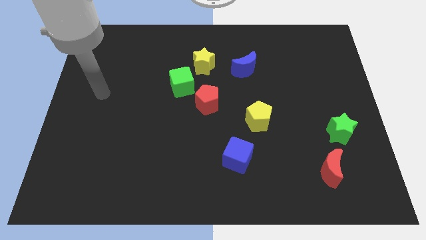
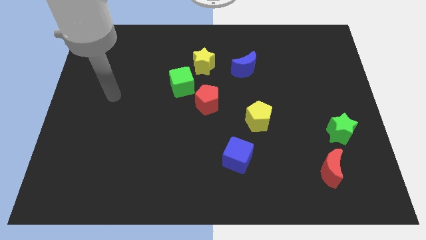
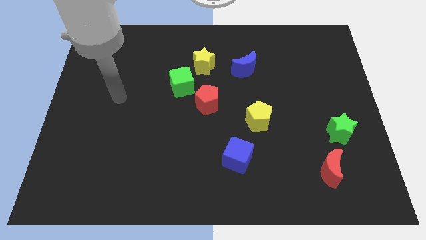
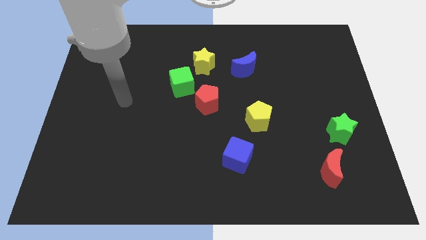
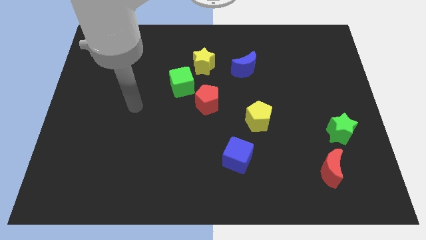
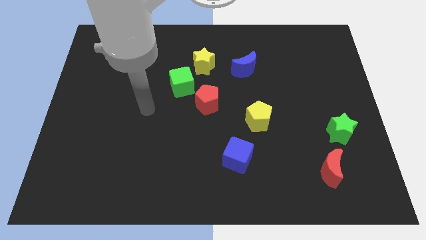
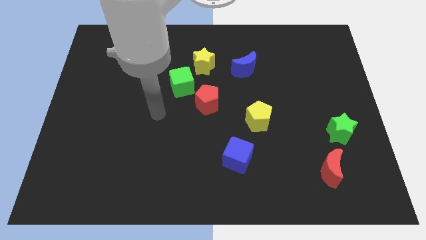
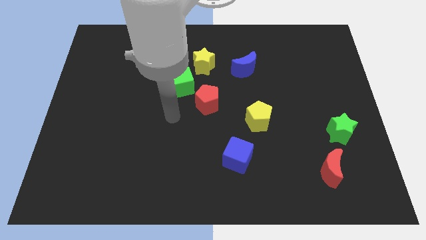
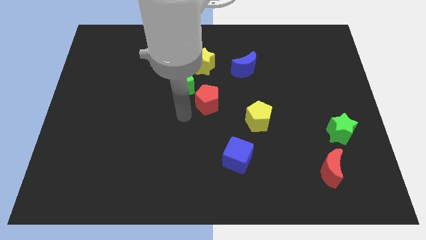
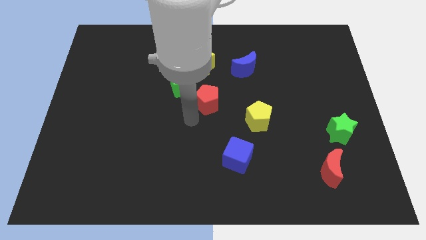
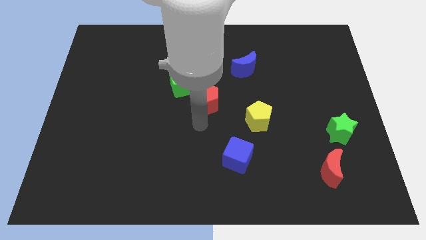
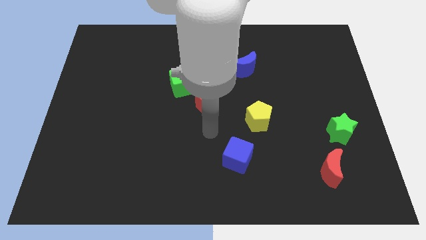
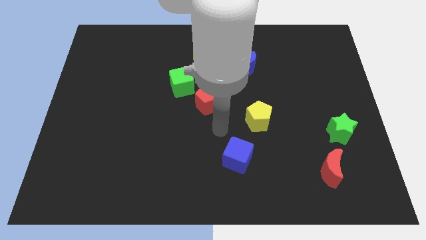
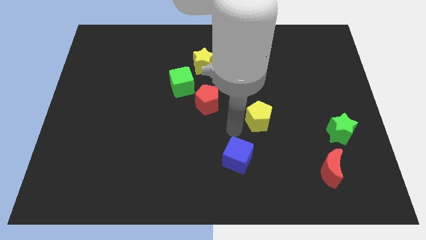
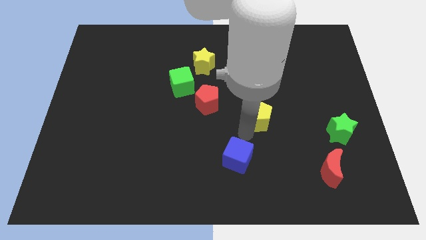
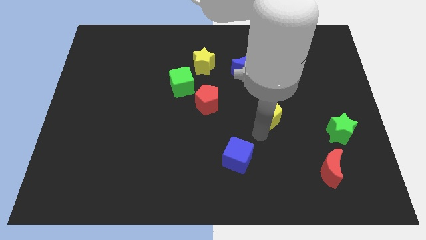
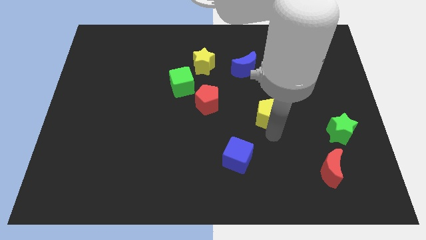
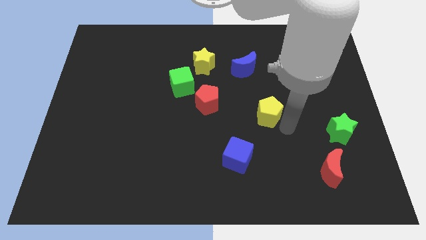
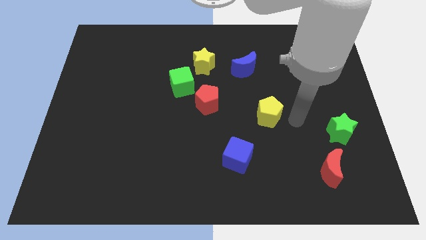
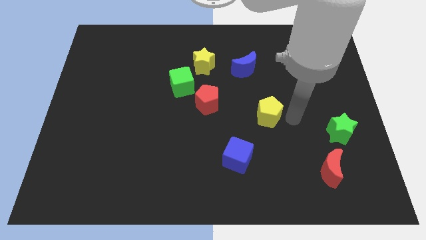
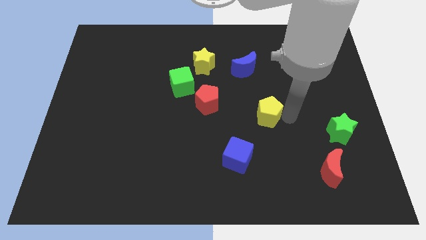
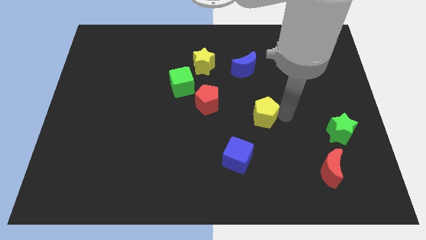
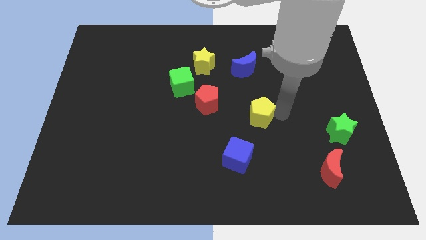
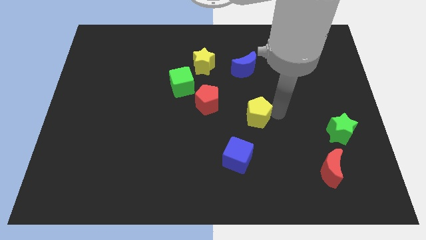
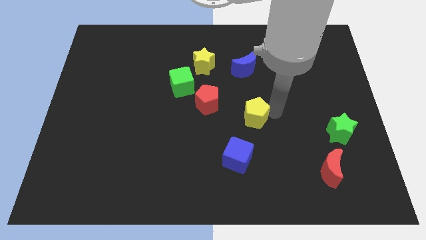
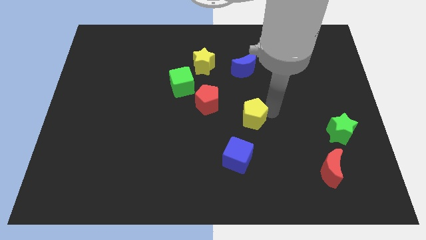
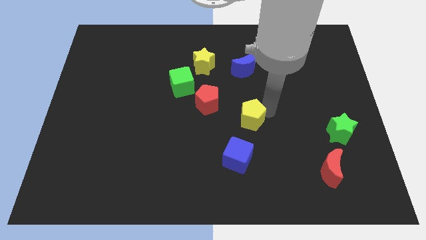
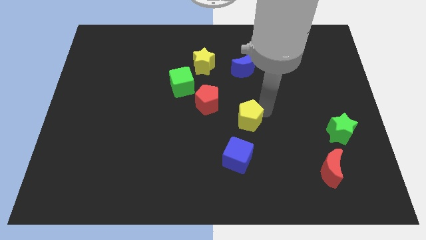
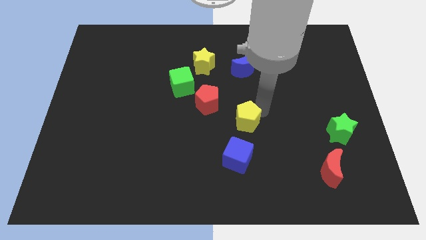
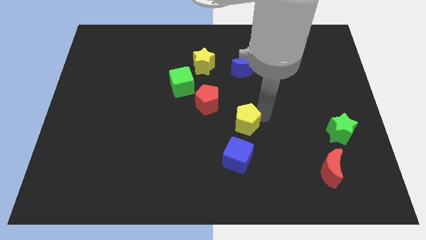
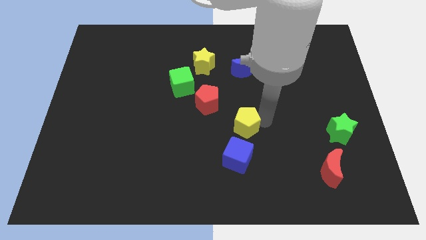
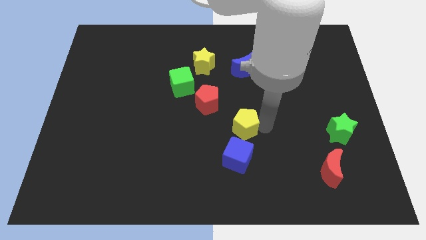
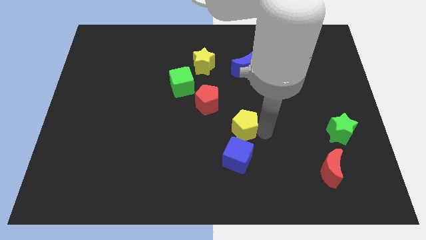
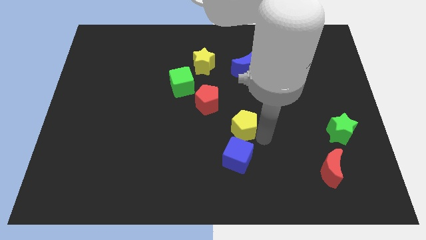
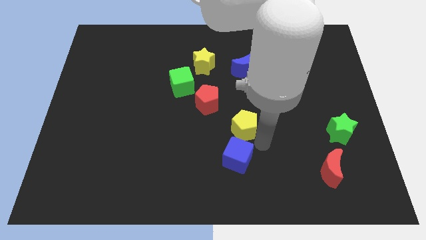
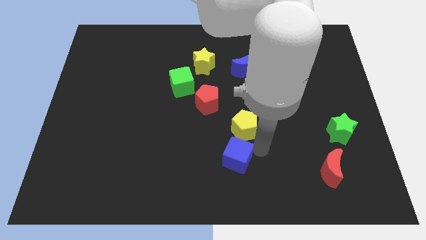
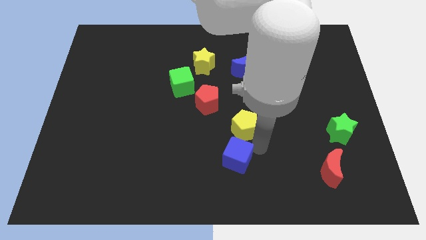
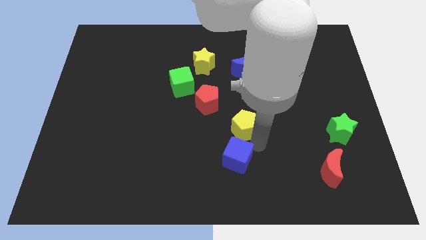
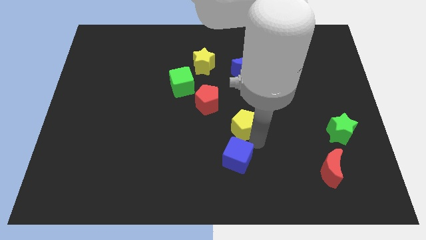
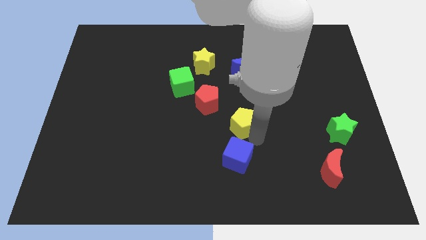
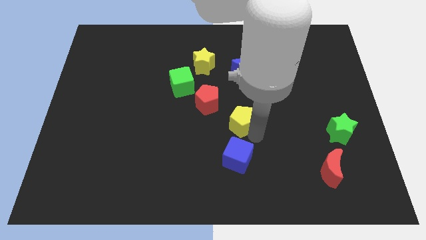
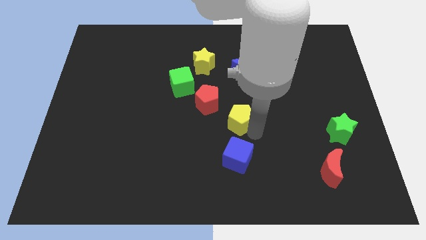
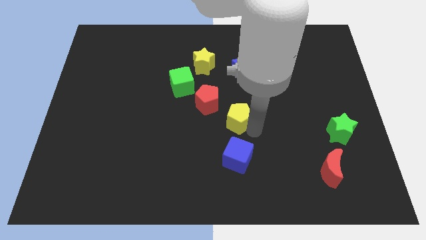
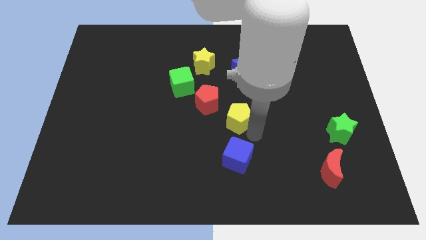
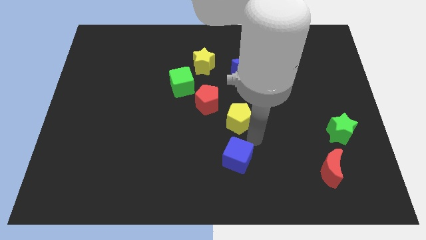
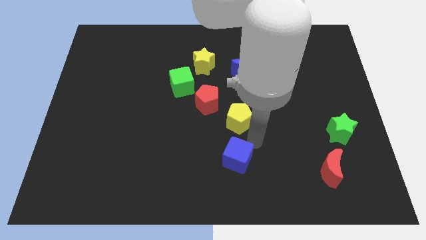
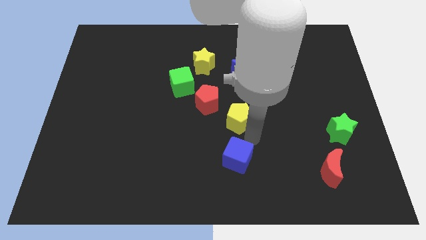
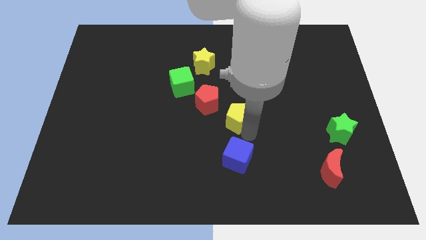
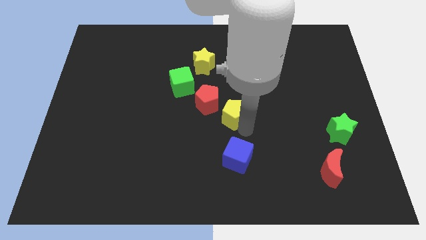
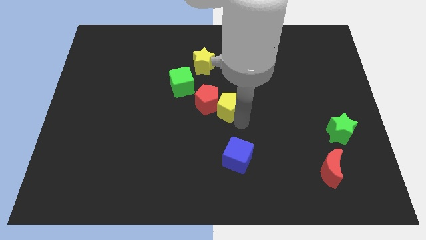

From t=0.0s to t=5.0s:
move the yellow pentagon to the red pentagon

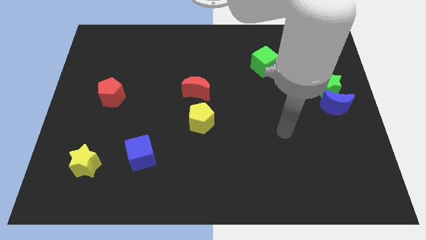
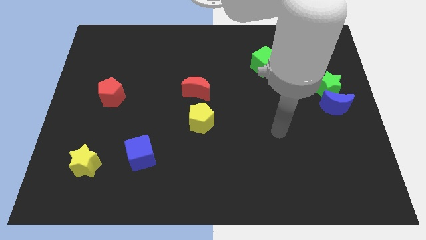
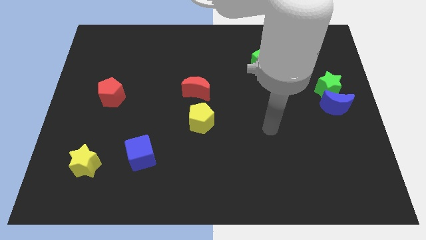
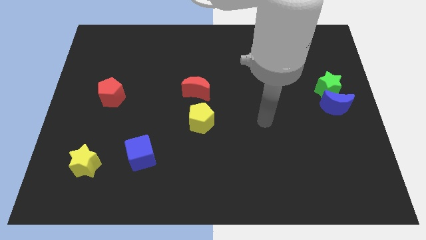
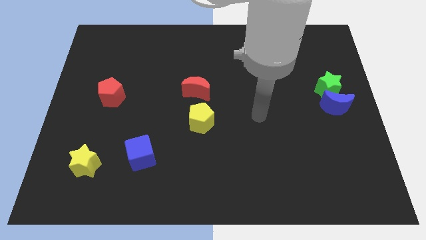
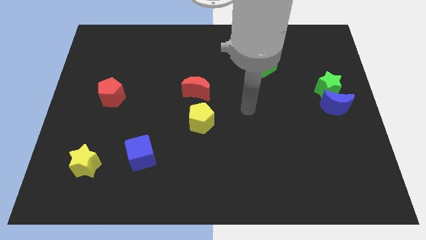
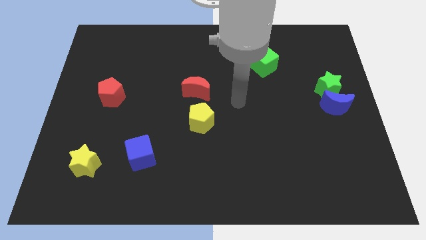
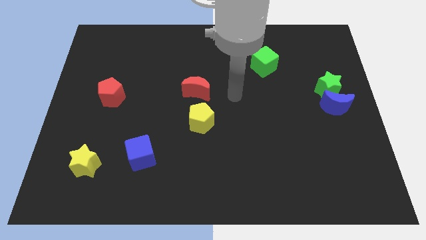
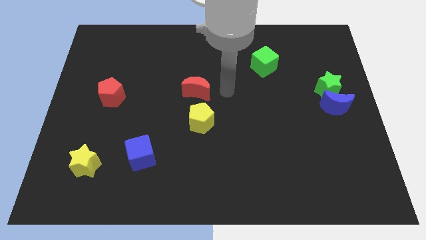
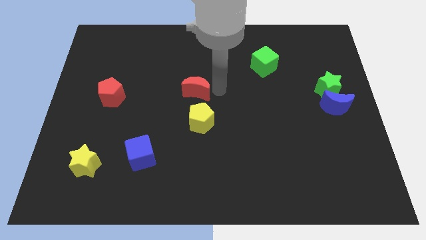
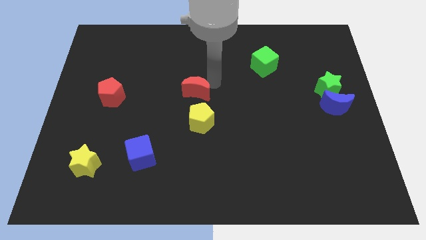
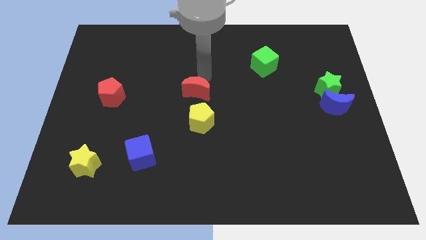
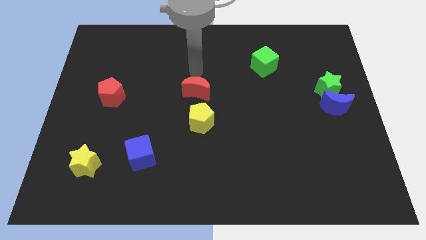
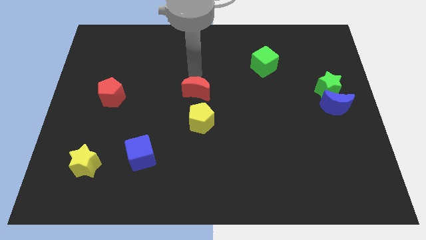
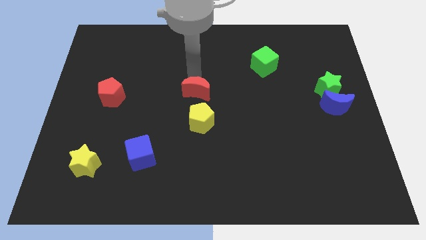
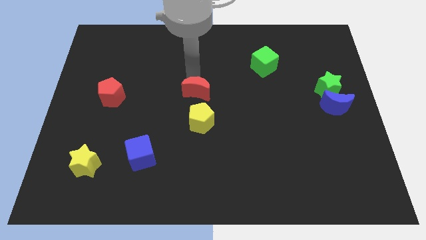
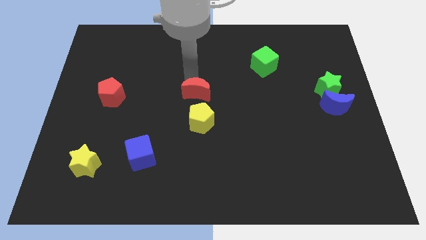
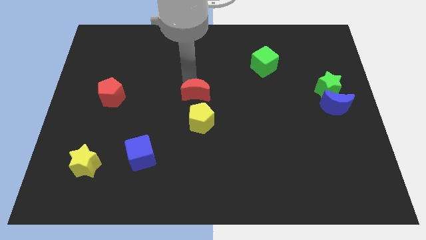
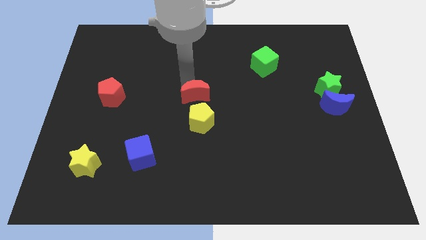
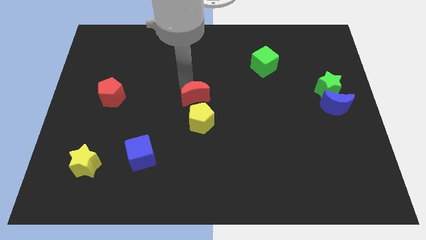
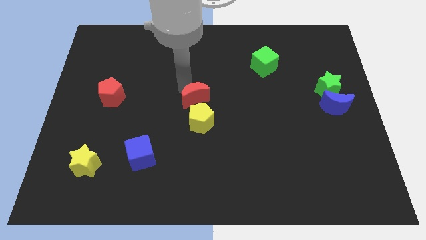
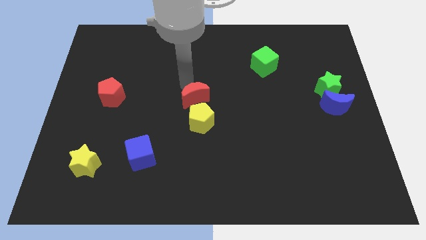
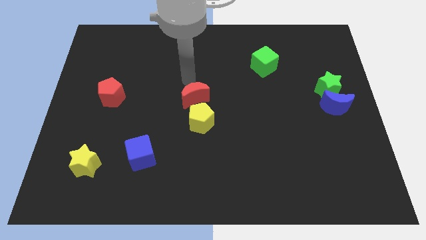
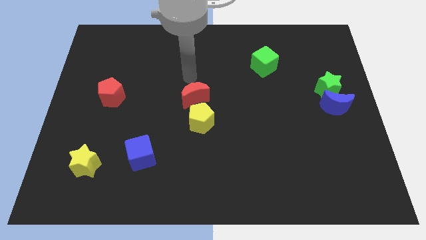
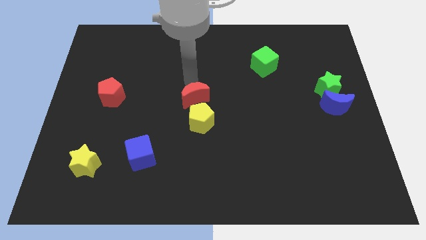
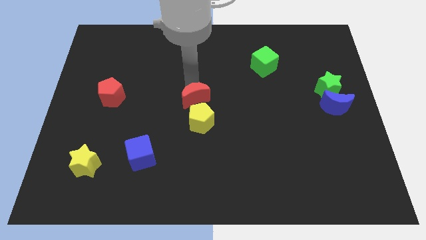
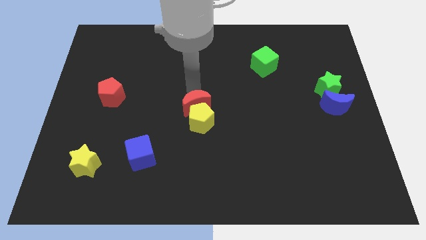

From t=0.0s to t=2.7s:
slide the red moon to the yellow pentagon

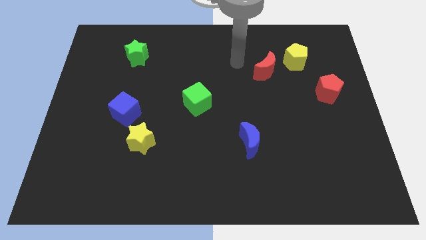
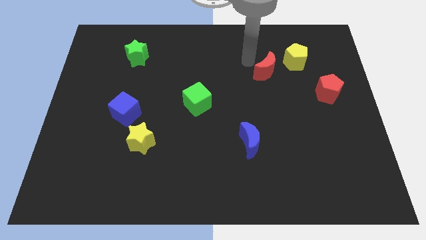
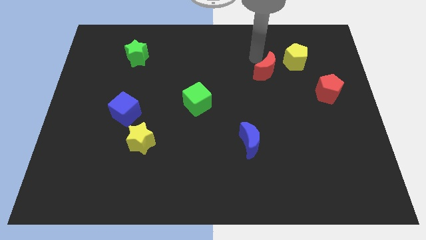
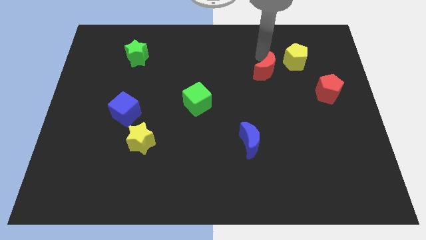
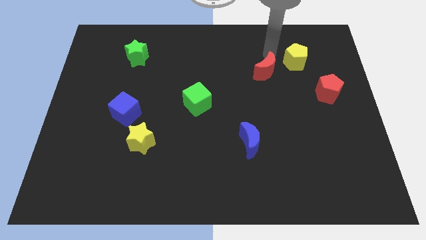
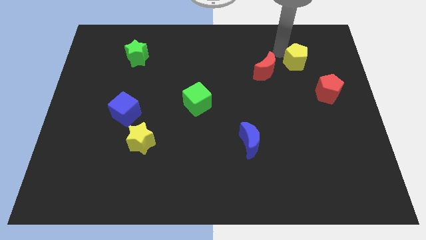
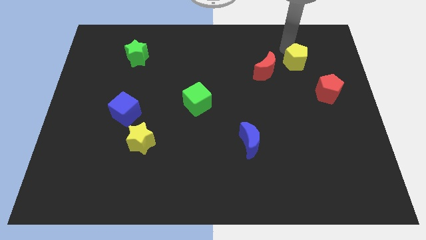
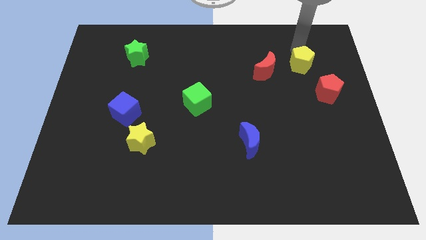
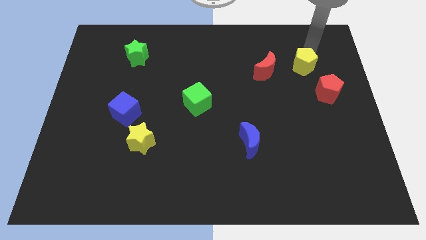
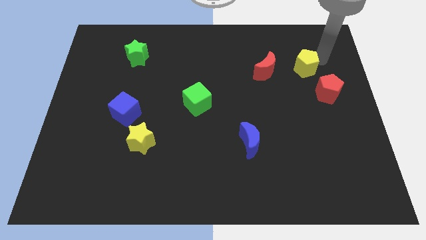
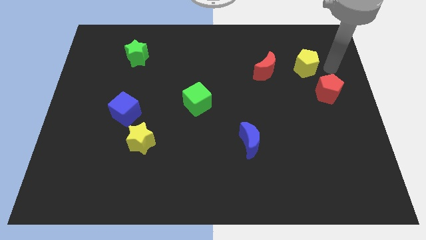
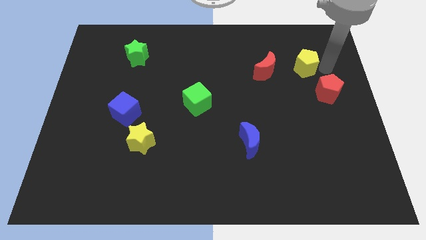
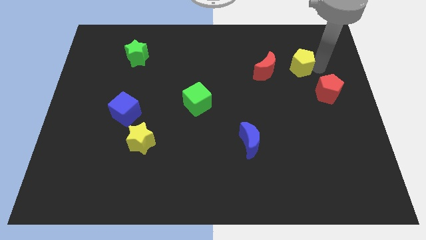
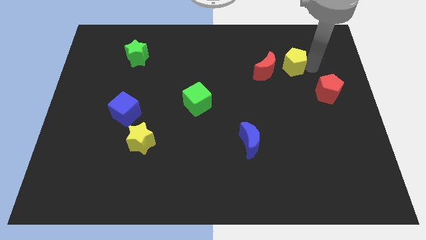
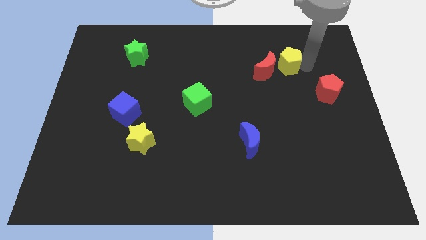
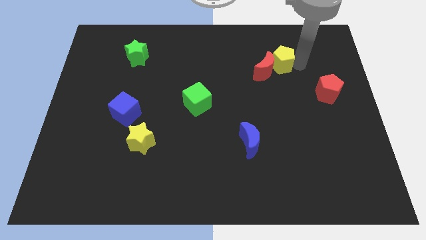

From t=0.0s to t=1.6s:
push the yellow pentagon next to the red moon
